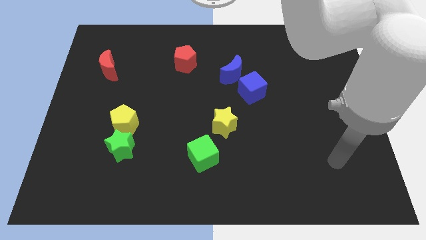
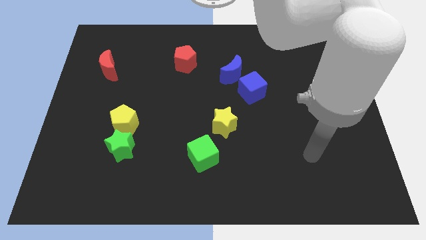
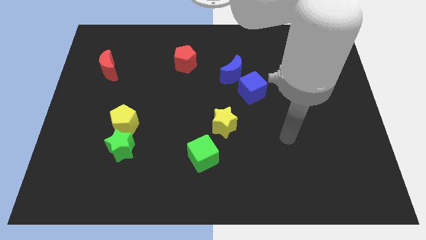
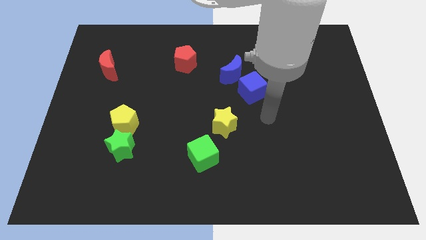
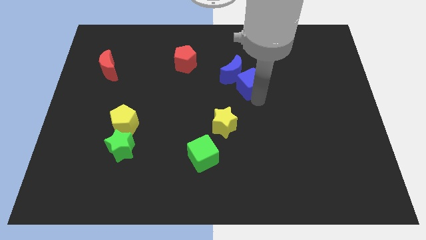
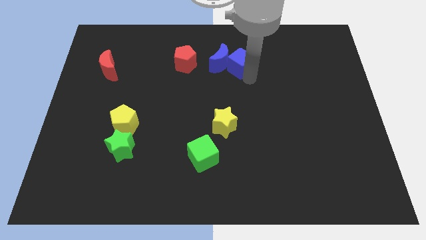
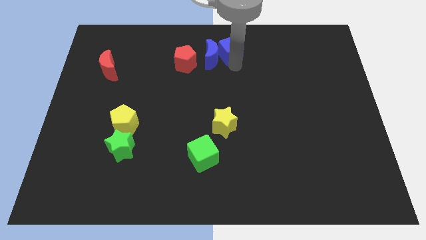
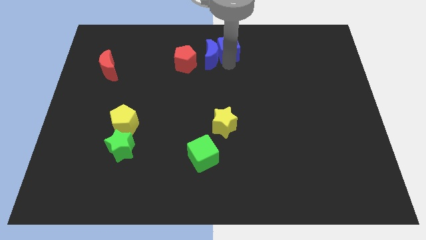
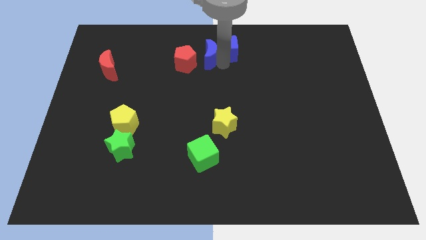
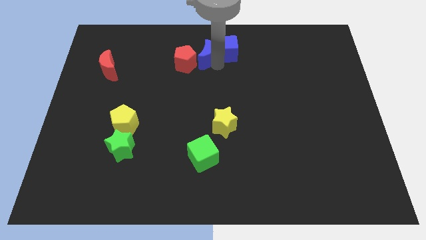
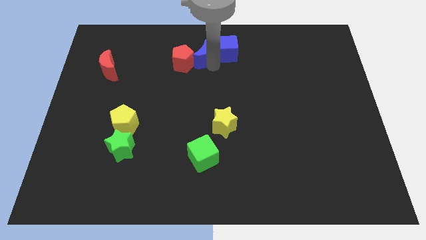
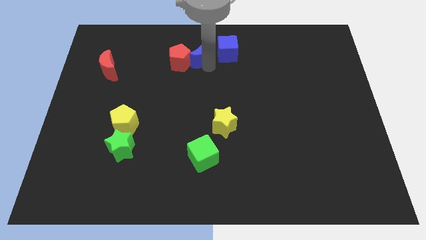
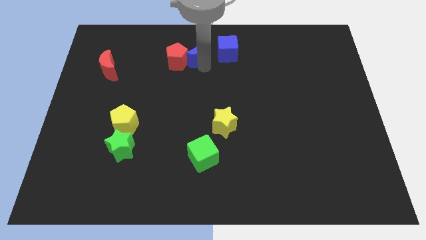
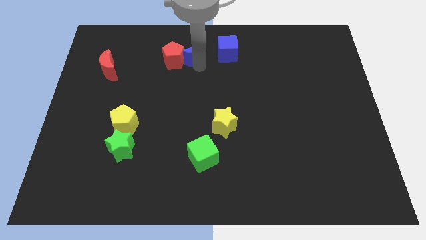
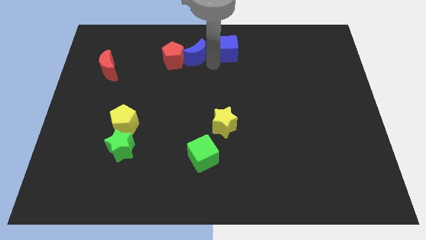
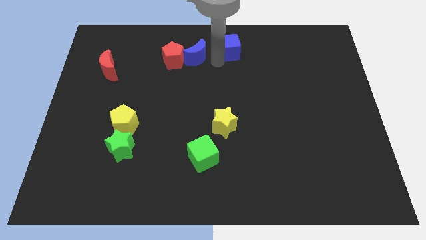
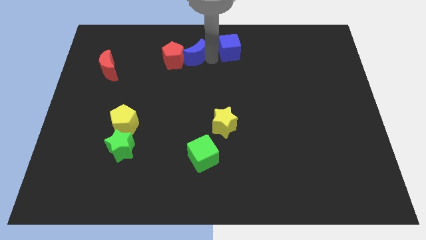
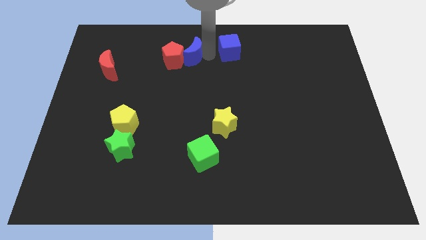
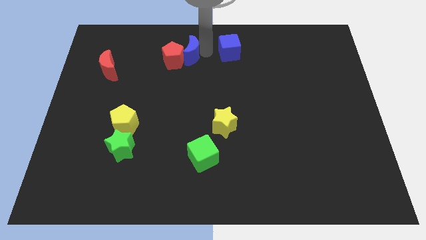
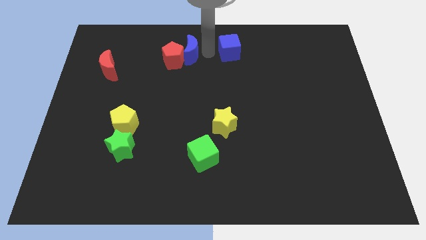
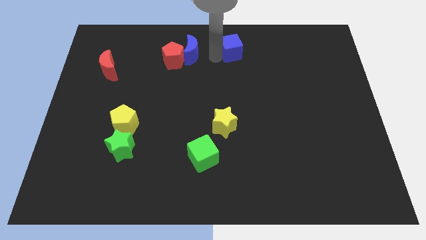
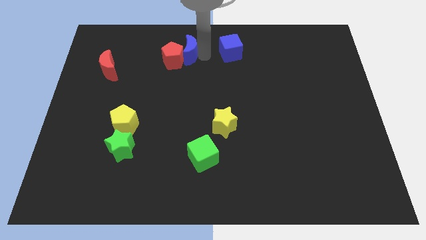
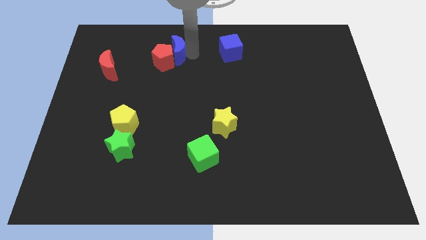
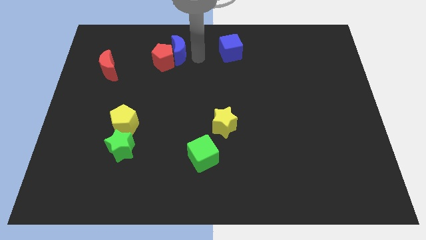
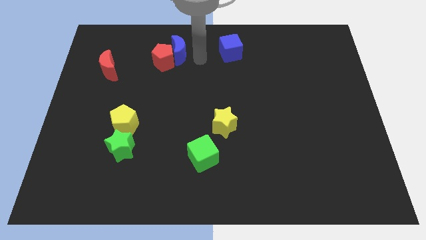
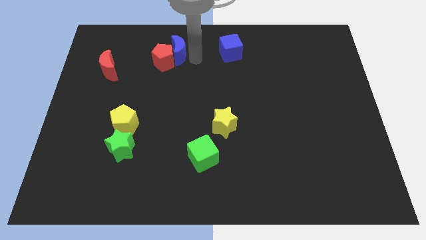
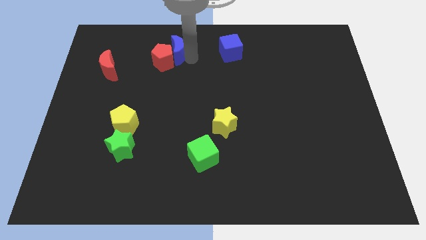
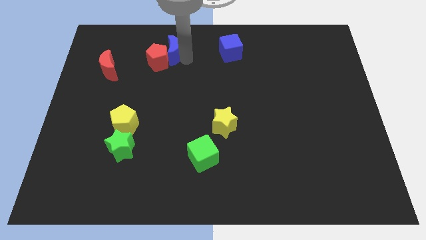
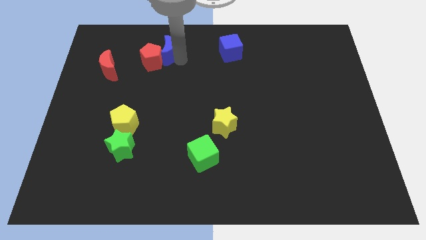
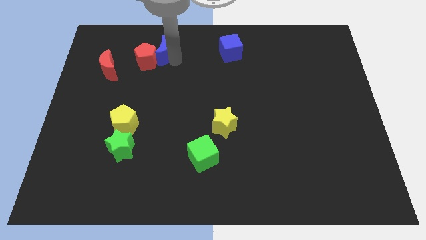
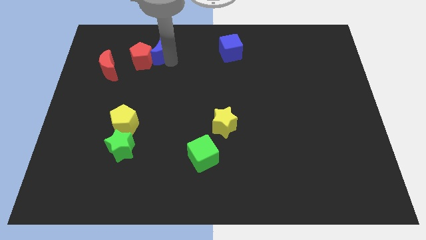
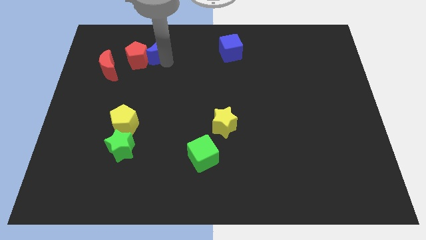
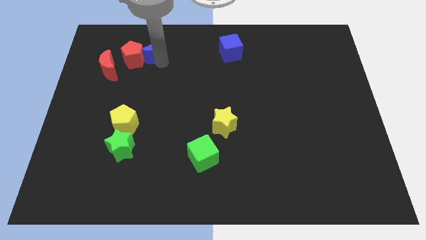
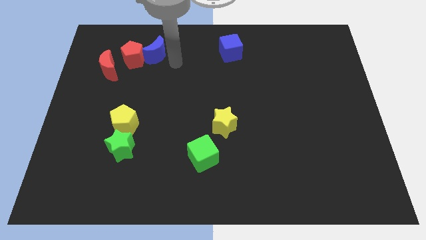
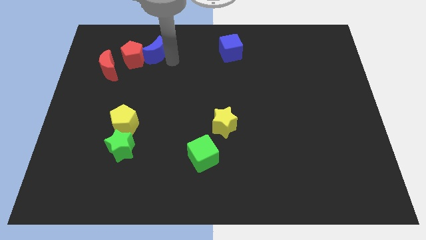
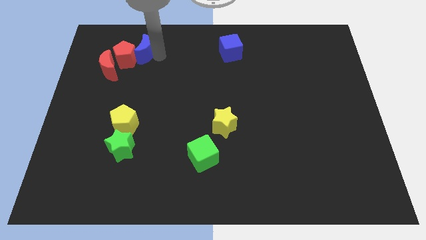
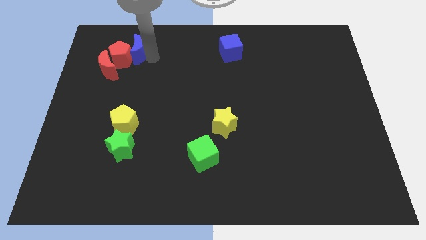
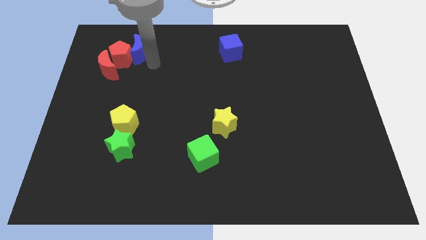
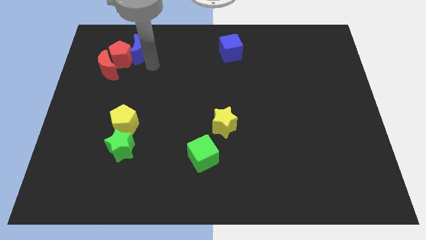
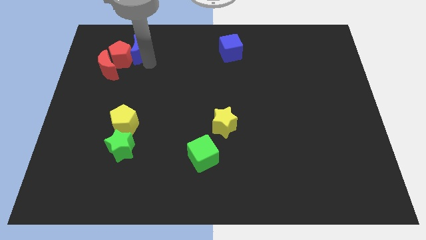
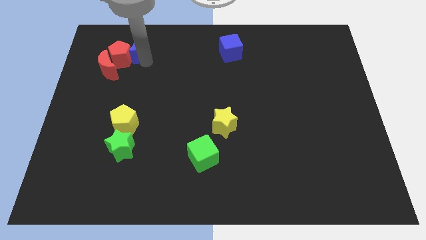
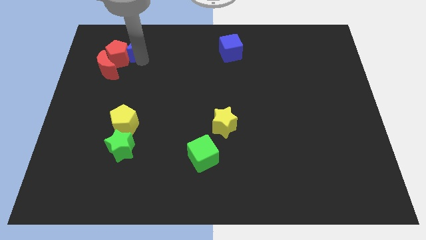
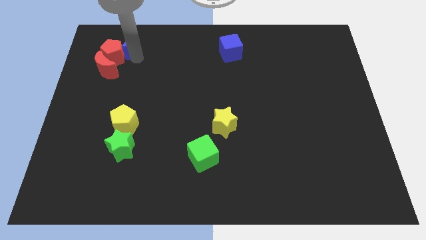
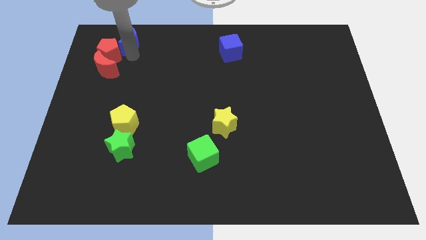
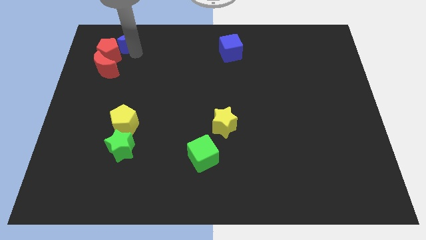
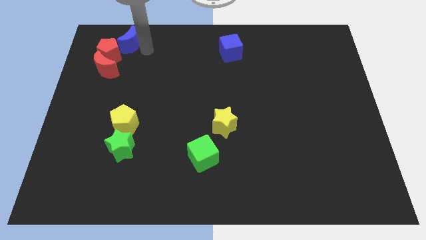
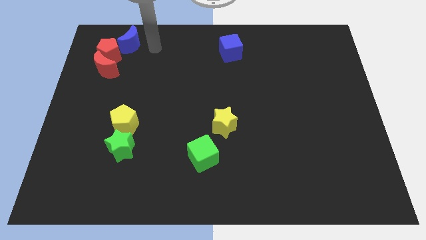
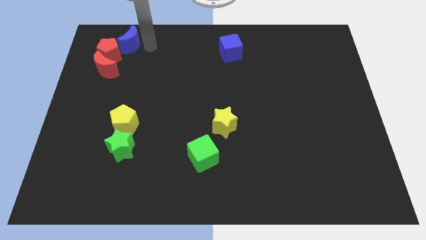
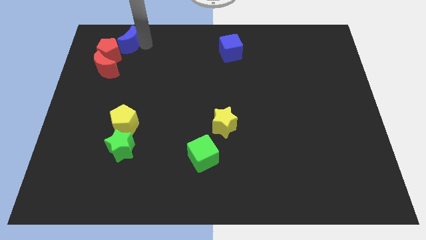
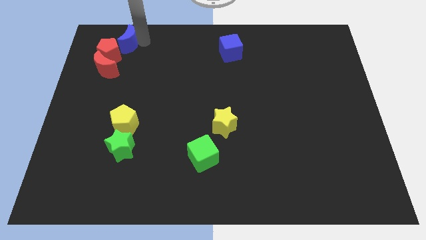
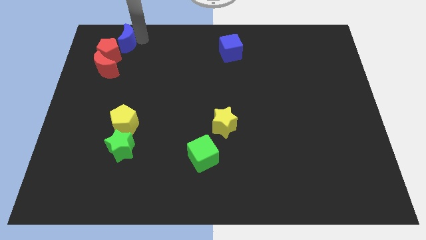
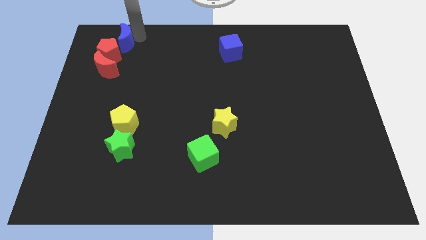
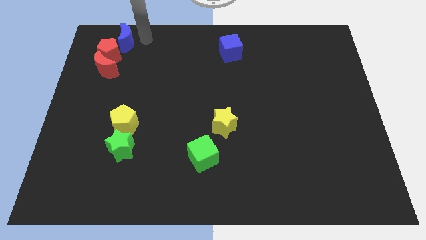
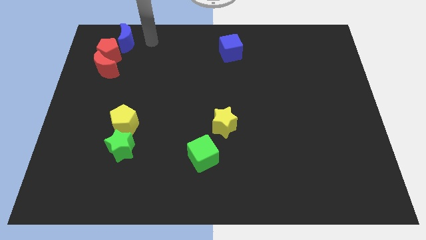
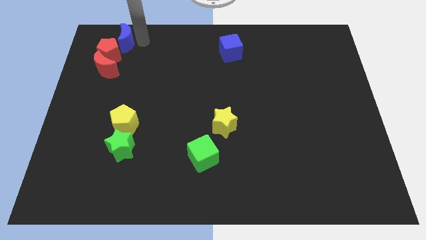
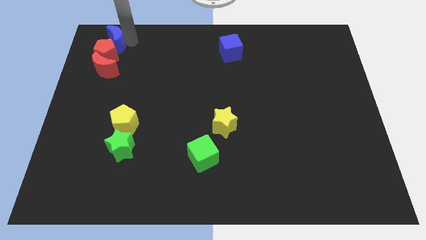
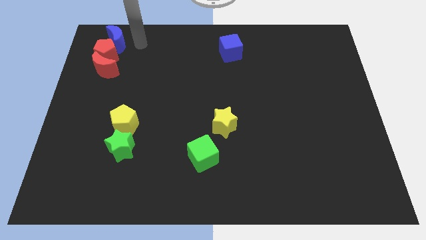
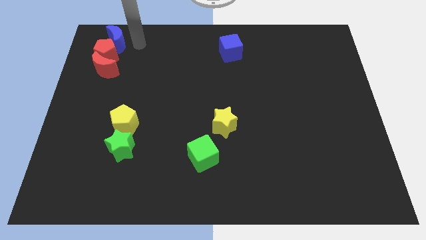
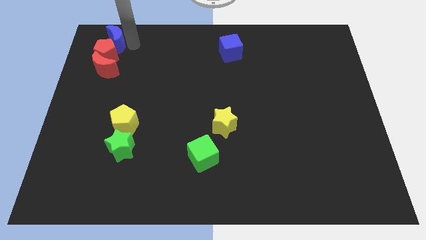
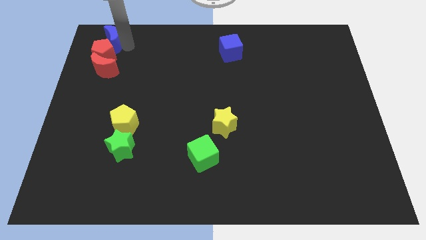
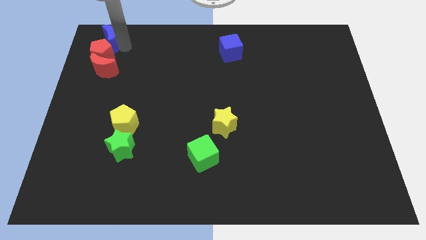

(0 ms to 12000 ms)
put the blue moon to the top left
